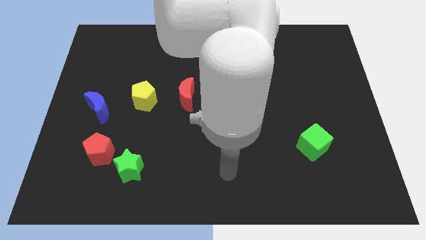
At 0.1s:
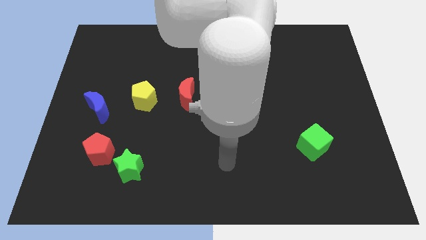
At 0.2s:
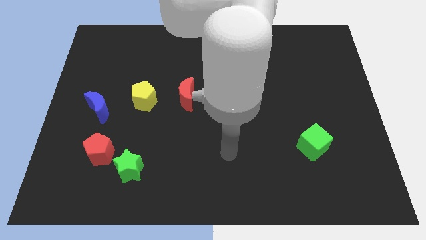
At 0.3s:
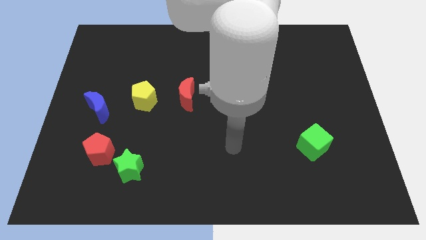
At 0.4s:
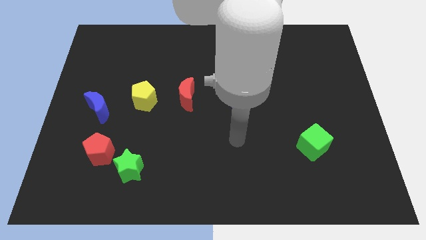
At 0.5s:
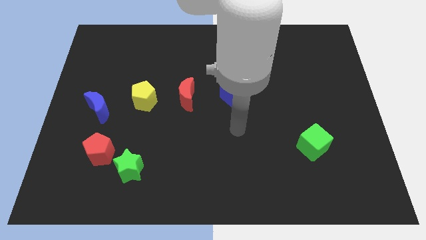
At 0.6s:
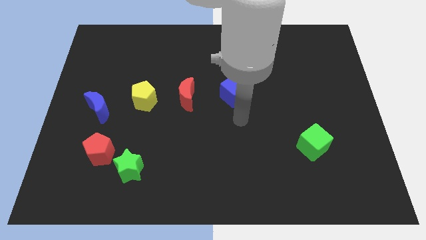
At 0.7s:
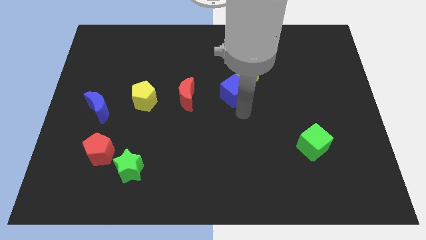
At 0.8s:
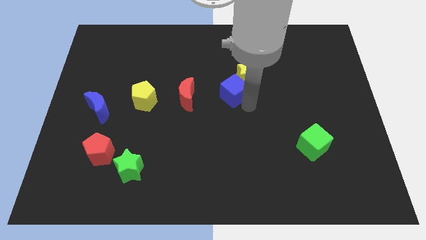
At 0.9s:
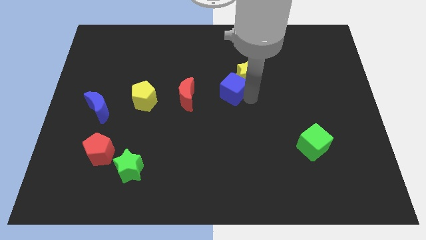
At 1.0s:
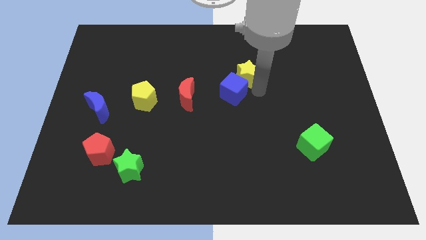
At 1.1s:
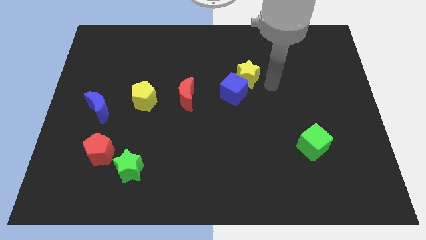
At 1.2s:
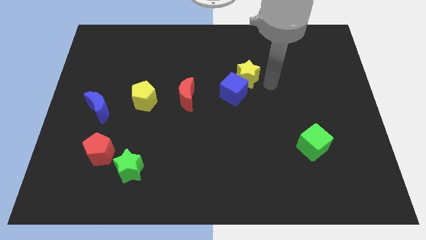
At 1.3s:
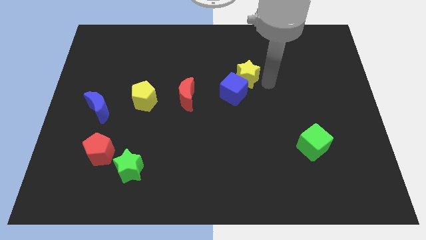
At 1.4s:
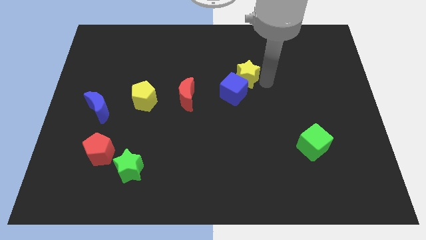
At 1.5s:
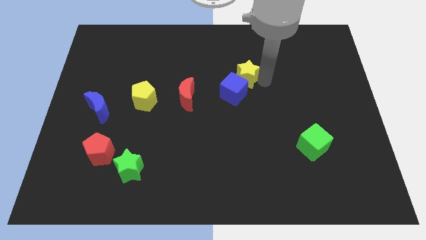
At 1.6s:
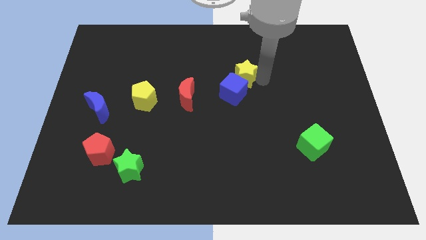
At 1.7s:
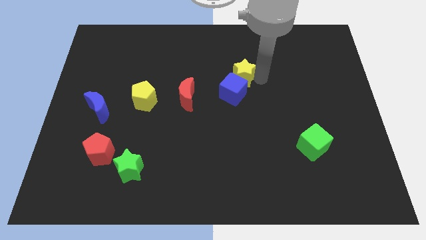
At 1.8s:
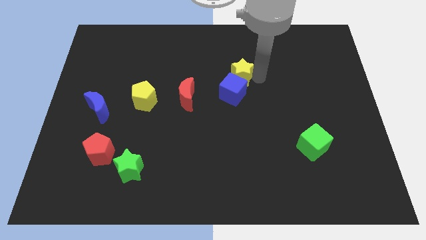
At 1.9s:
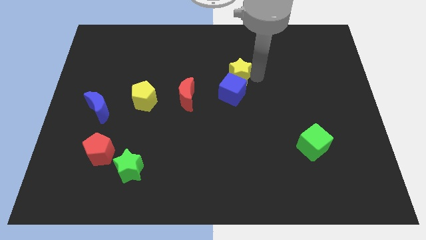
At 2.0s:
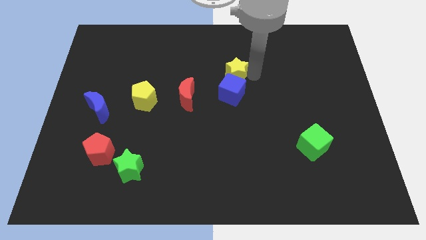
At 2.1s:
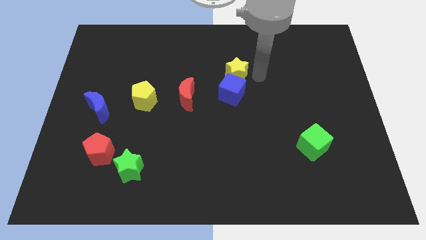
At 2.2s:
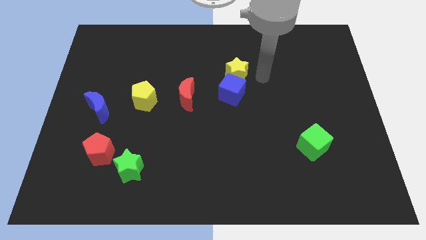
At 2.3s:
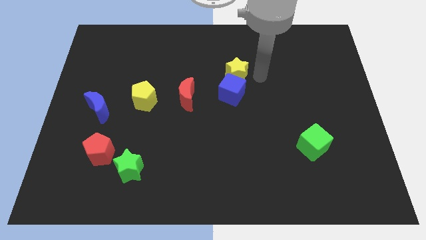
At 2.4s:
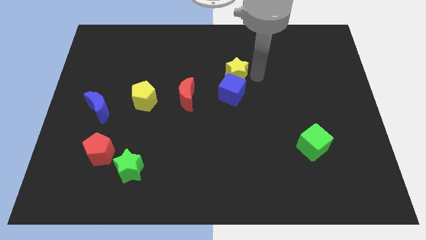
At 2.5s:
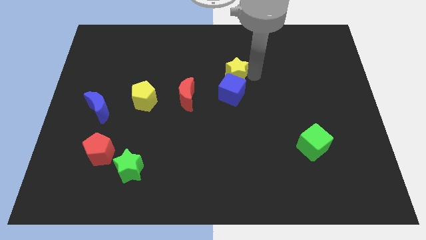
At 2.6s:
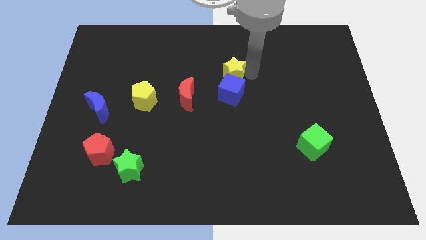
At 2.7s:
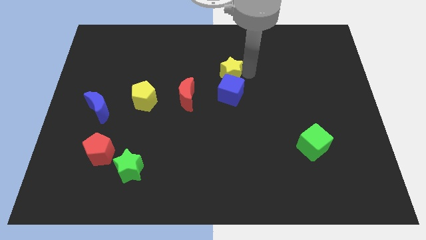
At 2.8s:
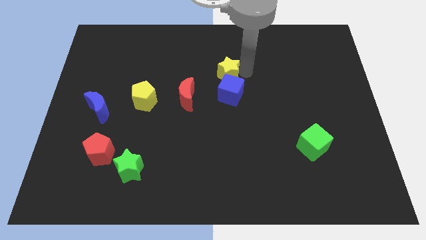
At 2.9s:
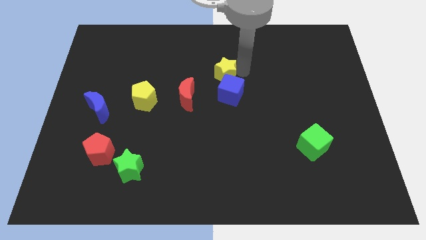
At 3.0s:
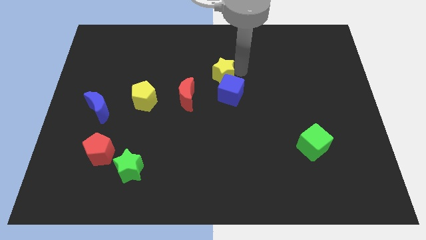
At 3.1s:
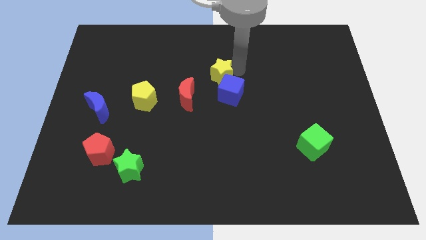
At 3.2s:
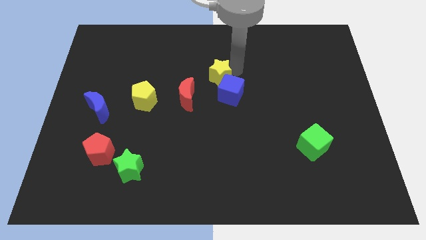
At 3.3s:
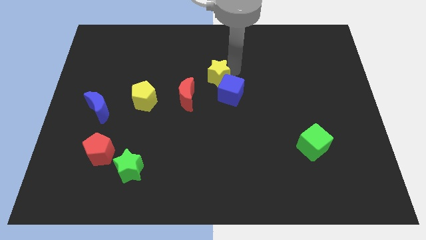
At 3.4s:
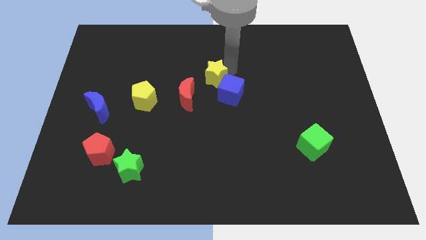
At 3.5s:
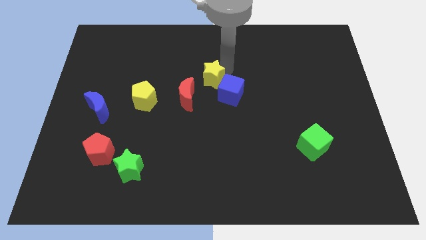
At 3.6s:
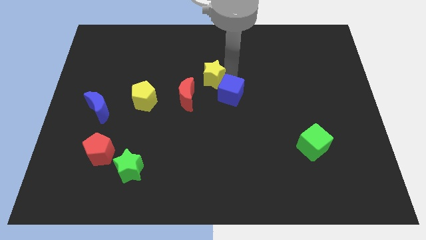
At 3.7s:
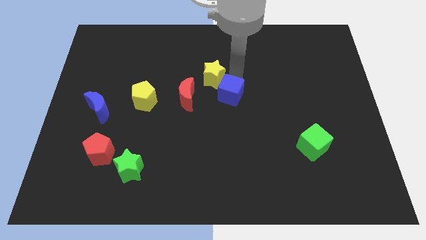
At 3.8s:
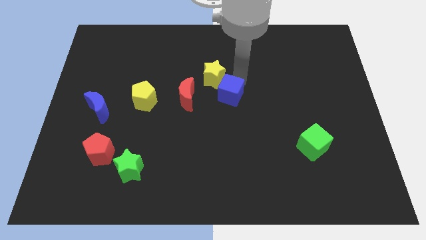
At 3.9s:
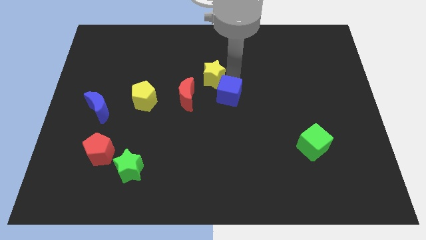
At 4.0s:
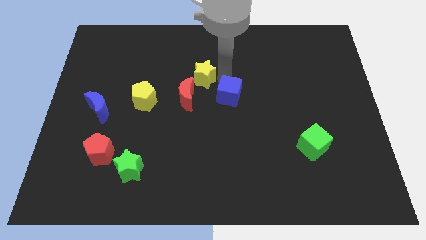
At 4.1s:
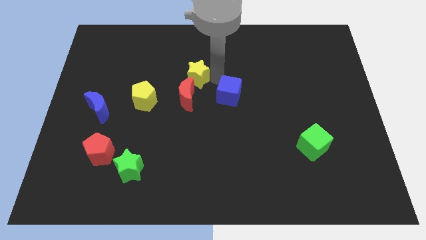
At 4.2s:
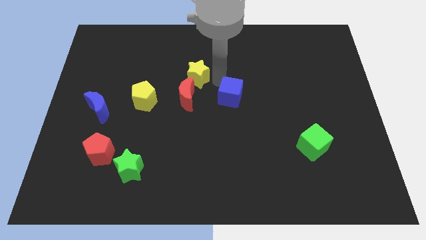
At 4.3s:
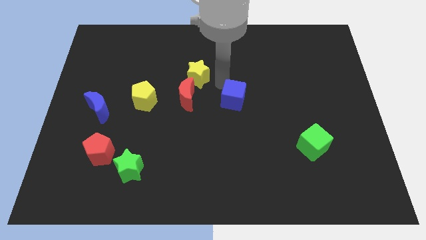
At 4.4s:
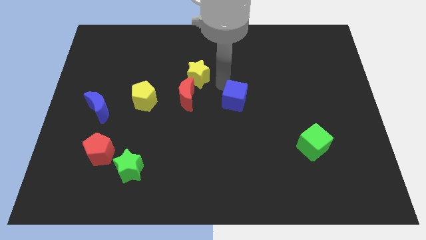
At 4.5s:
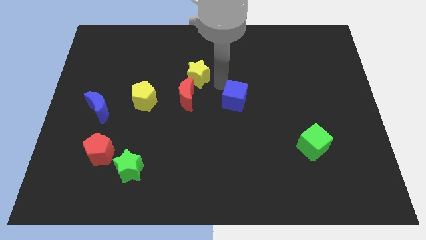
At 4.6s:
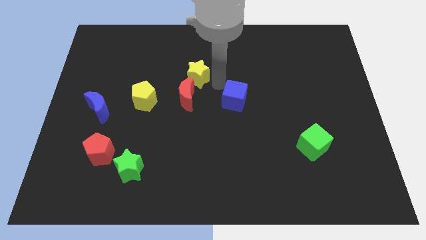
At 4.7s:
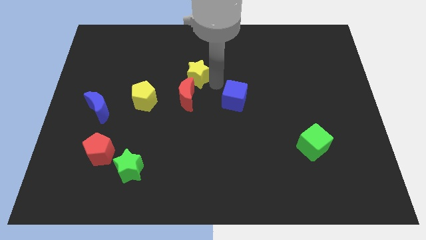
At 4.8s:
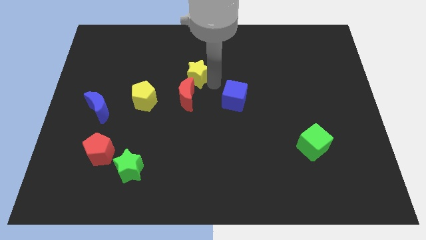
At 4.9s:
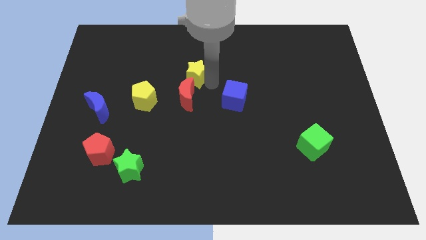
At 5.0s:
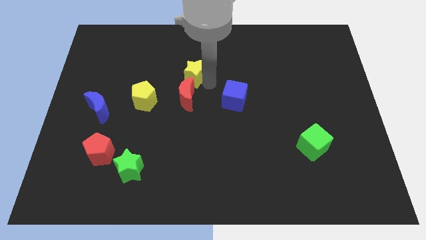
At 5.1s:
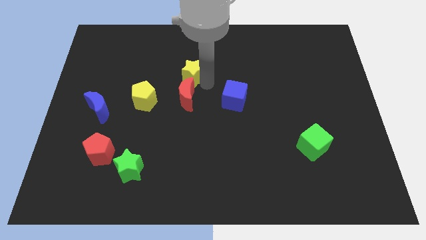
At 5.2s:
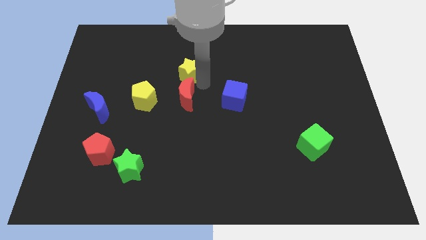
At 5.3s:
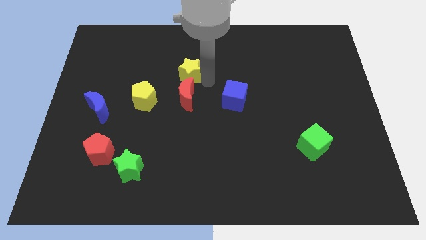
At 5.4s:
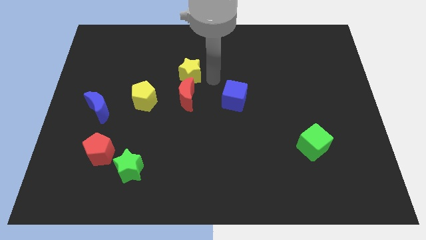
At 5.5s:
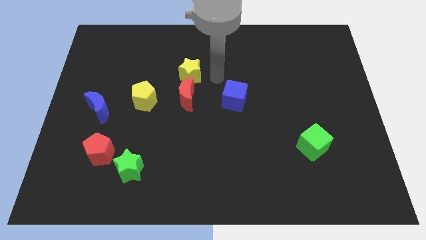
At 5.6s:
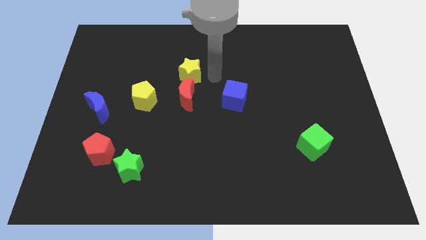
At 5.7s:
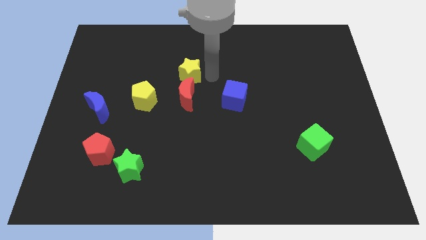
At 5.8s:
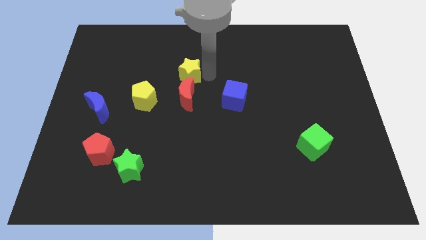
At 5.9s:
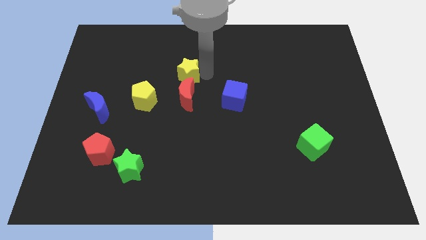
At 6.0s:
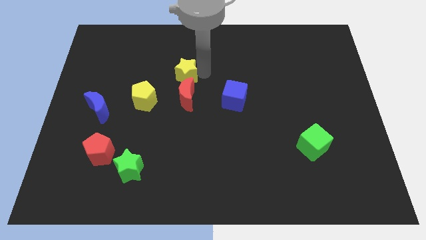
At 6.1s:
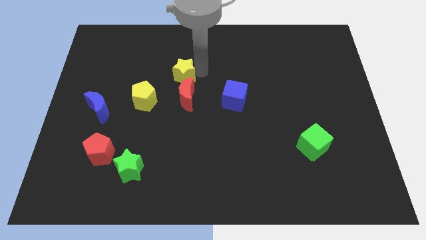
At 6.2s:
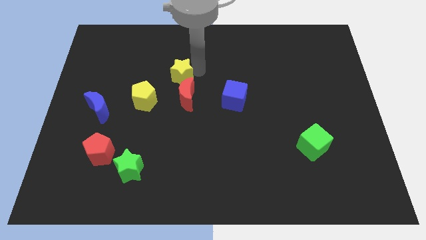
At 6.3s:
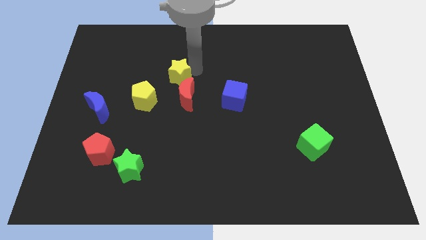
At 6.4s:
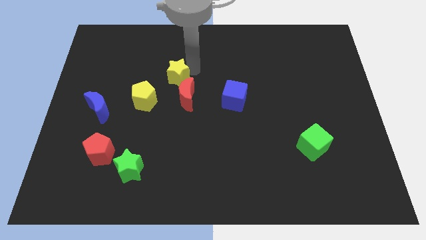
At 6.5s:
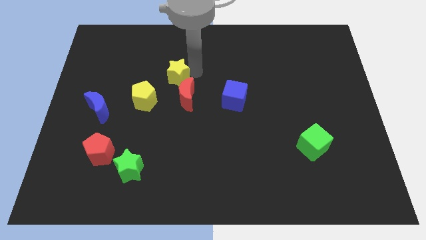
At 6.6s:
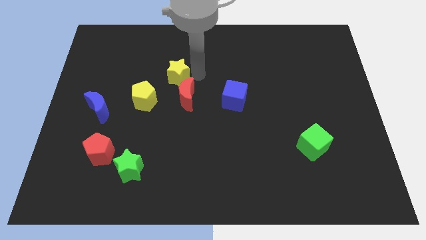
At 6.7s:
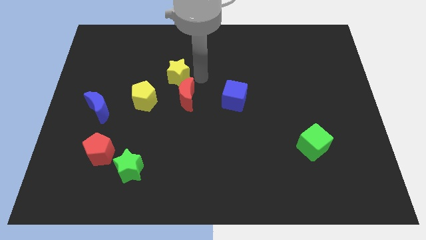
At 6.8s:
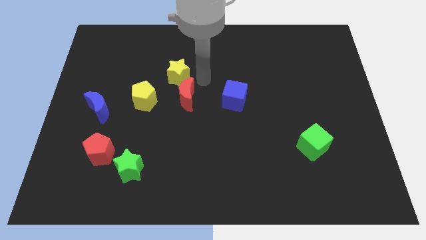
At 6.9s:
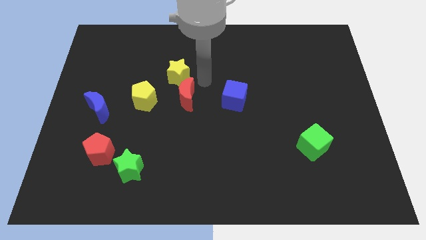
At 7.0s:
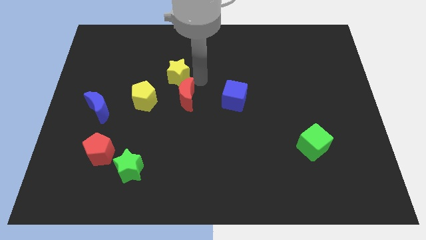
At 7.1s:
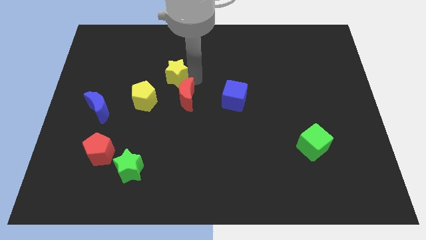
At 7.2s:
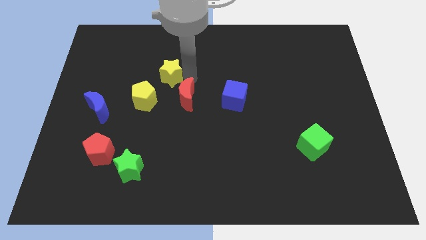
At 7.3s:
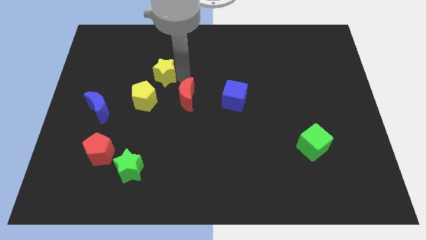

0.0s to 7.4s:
slide the yellow star left

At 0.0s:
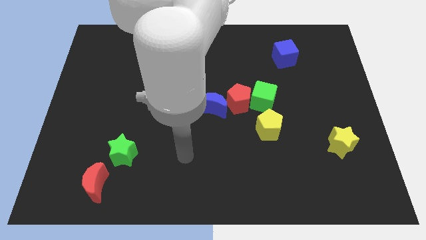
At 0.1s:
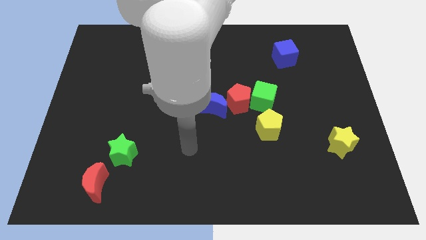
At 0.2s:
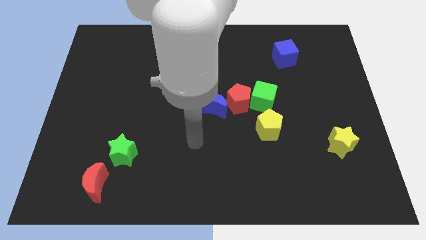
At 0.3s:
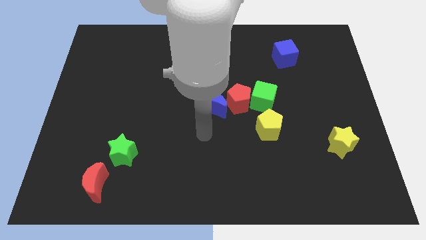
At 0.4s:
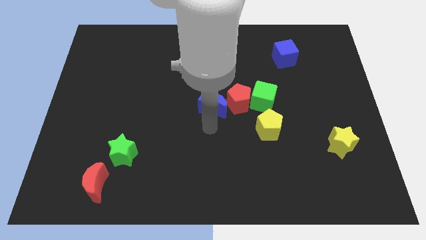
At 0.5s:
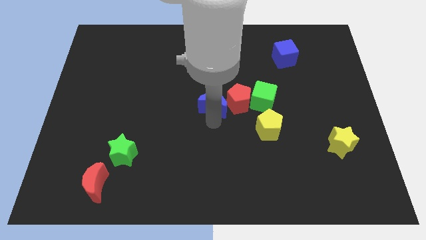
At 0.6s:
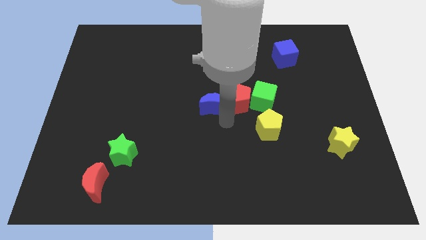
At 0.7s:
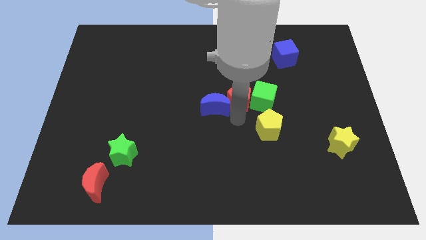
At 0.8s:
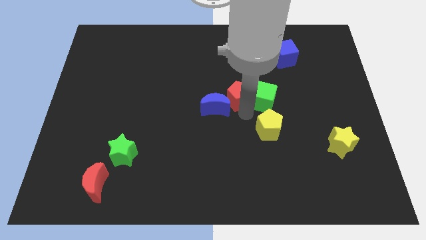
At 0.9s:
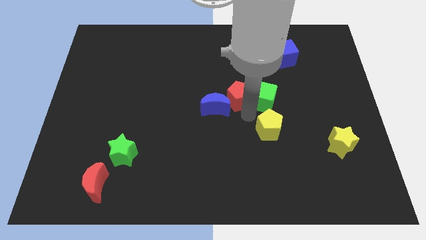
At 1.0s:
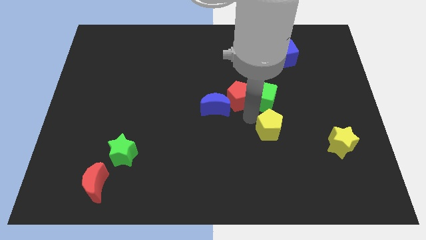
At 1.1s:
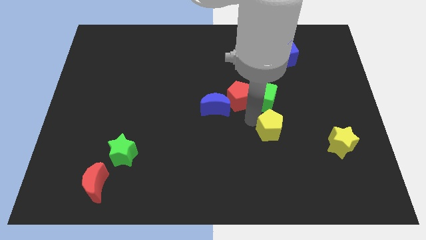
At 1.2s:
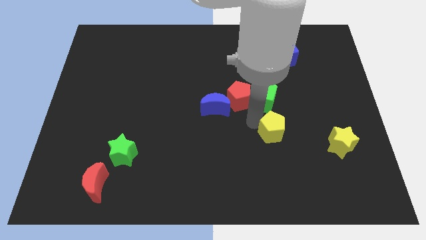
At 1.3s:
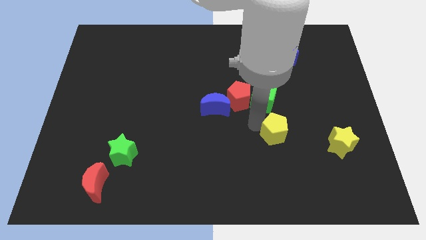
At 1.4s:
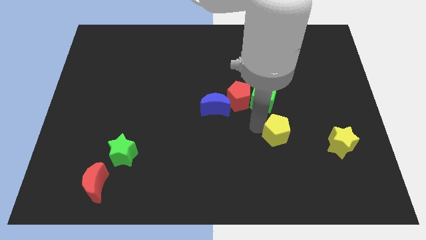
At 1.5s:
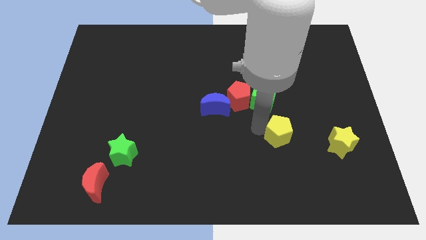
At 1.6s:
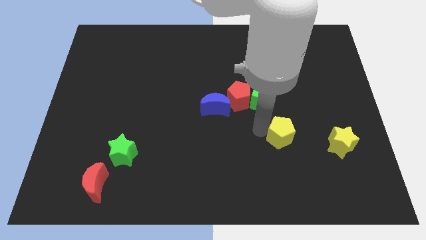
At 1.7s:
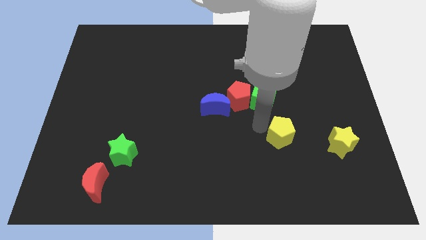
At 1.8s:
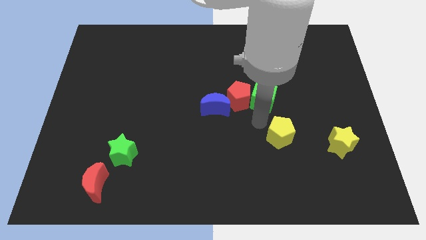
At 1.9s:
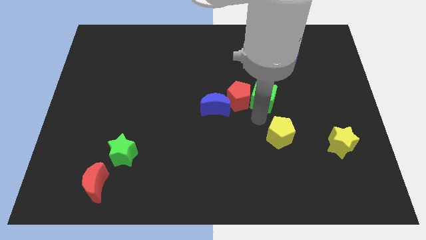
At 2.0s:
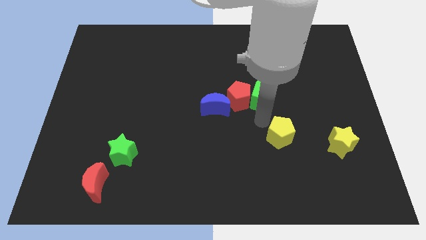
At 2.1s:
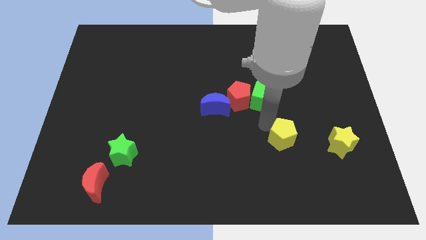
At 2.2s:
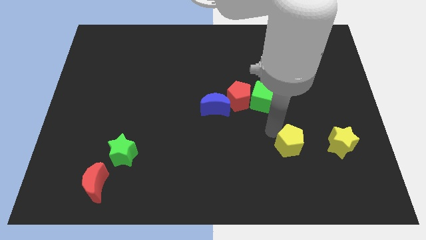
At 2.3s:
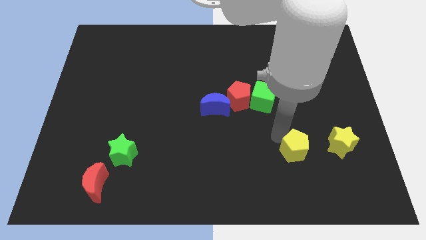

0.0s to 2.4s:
move the yellow pentagon slightly diagonally down and right
